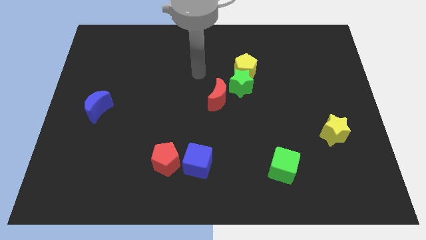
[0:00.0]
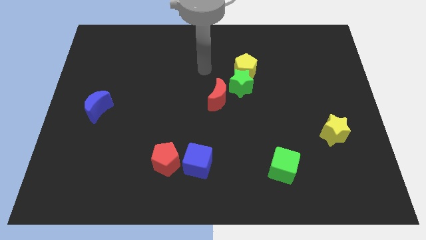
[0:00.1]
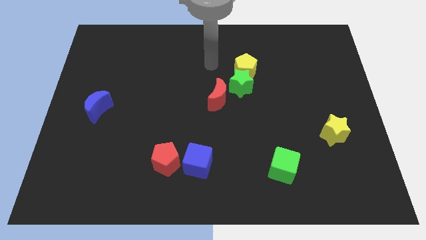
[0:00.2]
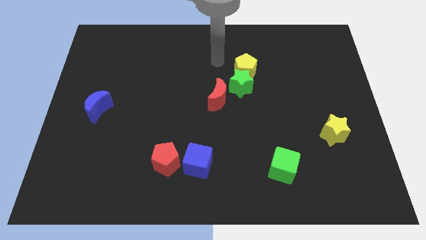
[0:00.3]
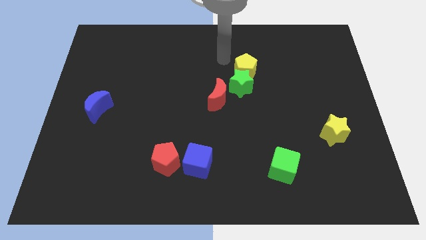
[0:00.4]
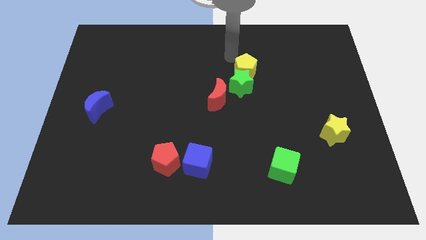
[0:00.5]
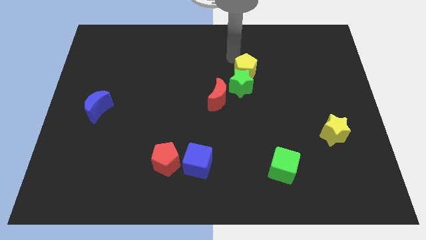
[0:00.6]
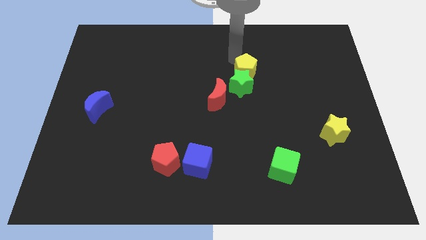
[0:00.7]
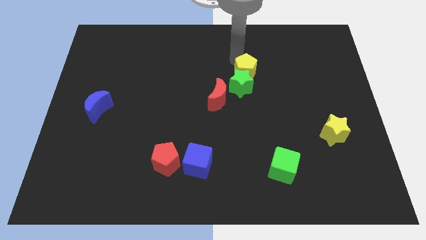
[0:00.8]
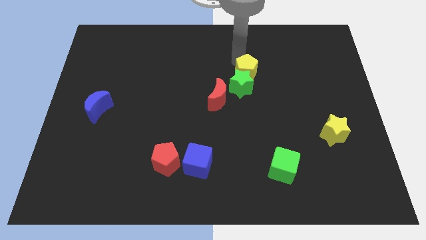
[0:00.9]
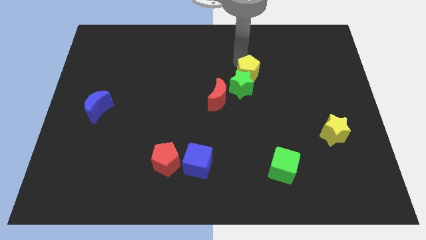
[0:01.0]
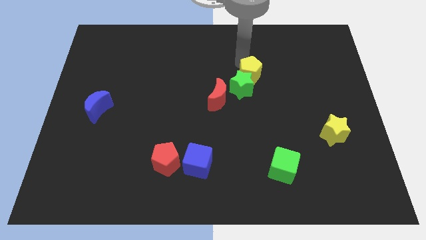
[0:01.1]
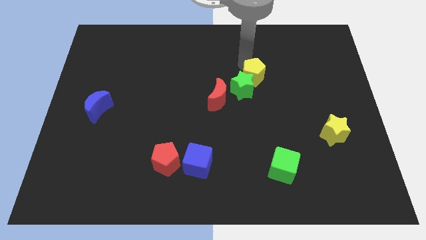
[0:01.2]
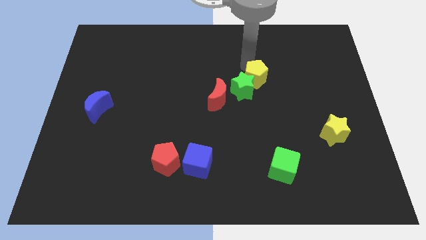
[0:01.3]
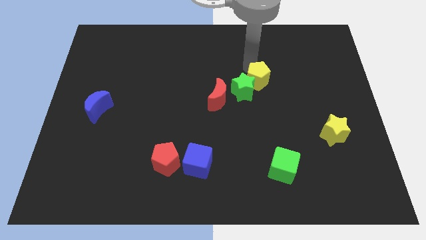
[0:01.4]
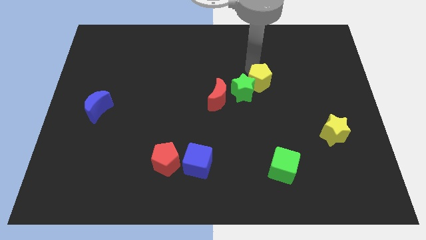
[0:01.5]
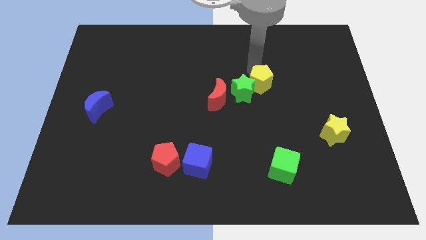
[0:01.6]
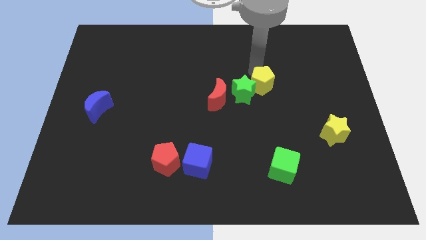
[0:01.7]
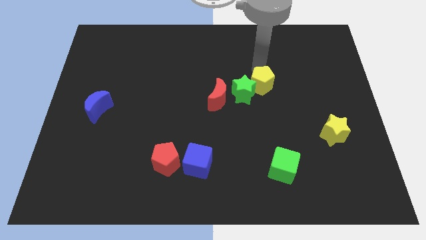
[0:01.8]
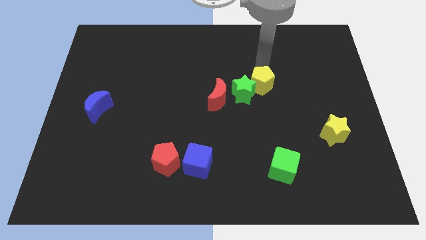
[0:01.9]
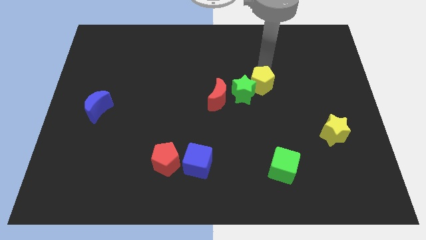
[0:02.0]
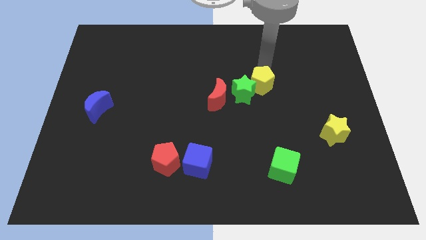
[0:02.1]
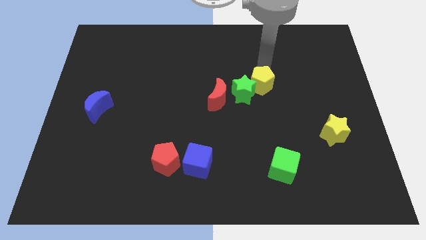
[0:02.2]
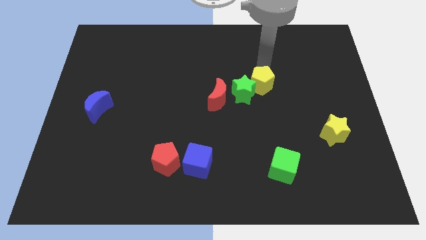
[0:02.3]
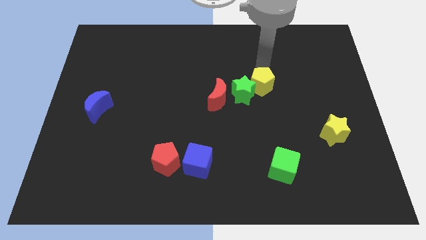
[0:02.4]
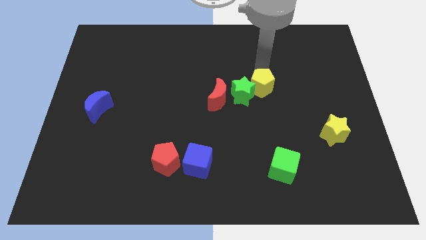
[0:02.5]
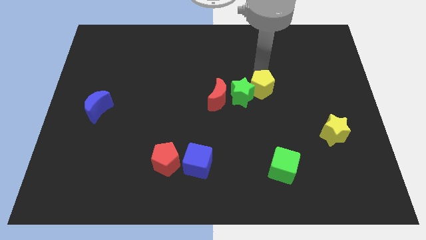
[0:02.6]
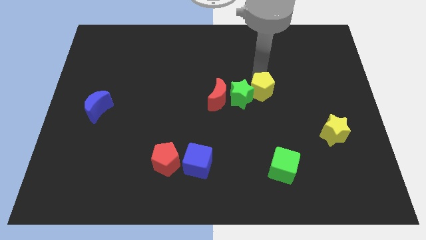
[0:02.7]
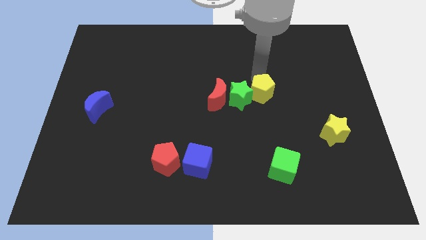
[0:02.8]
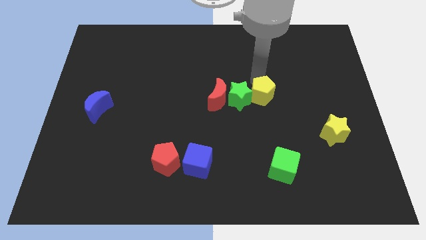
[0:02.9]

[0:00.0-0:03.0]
slide the yellow pentagon downwards somewhat

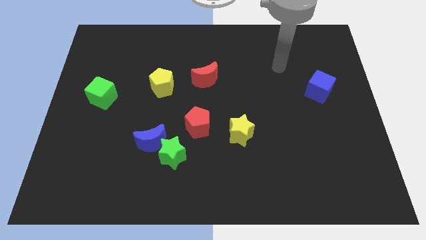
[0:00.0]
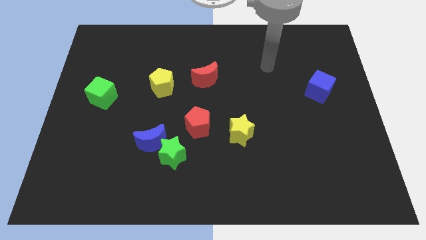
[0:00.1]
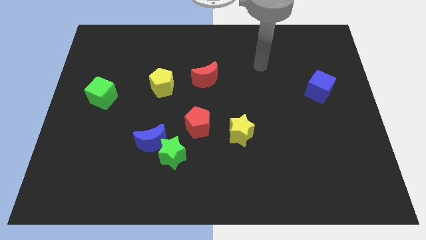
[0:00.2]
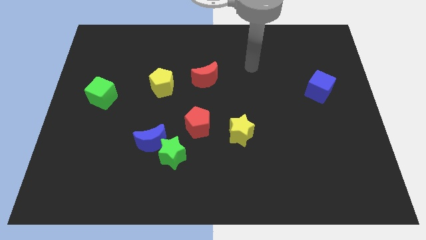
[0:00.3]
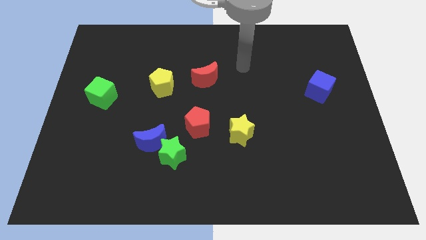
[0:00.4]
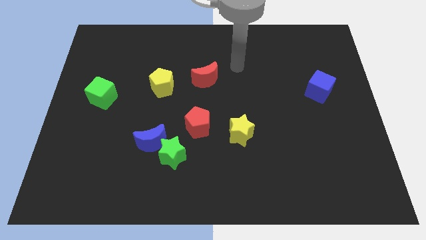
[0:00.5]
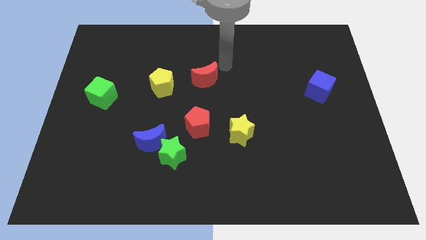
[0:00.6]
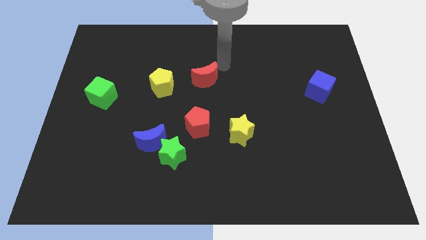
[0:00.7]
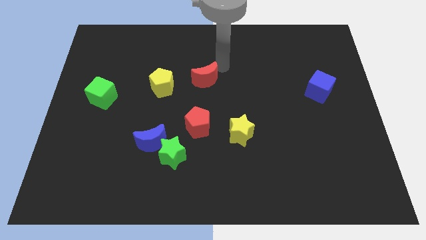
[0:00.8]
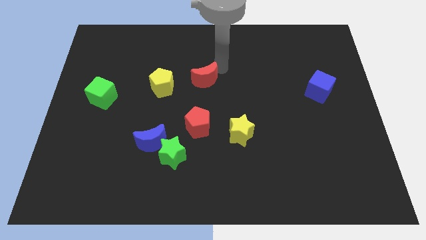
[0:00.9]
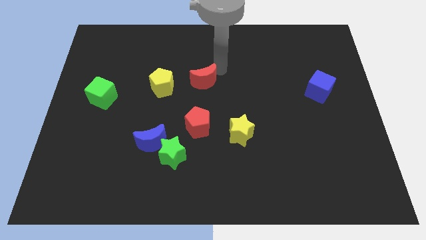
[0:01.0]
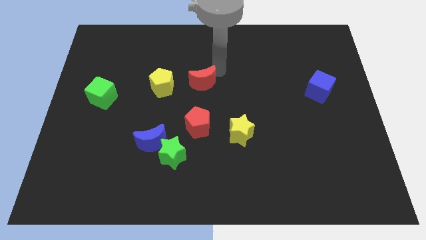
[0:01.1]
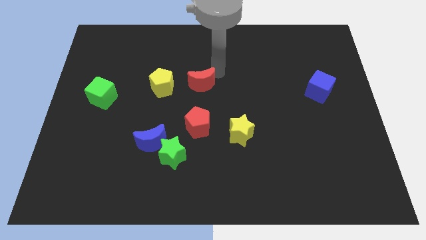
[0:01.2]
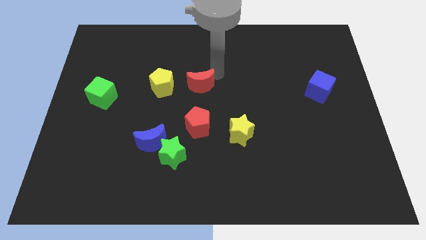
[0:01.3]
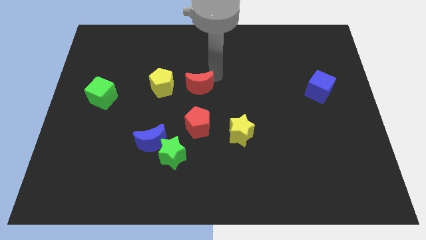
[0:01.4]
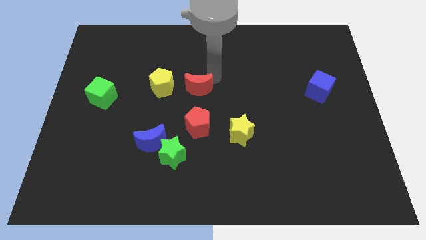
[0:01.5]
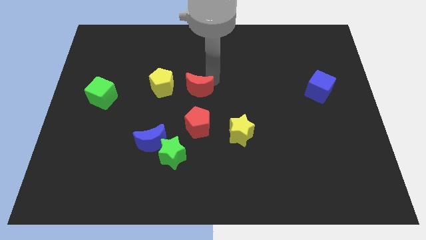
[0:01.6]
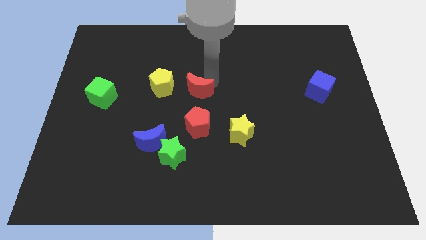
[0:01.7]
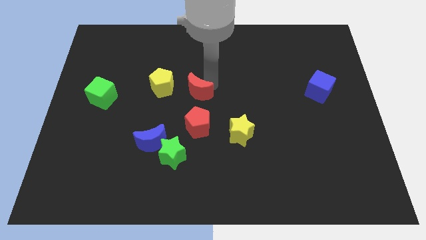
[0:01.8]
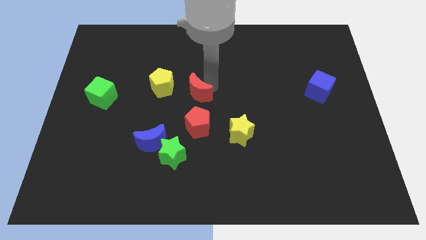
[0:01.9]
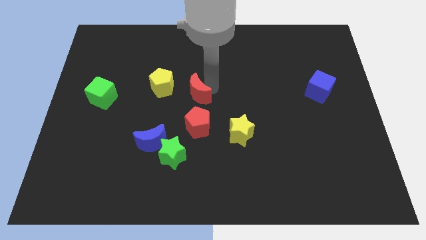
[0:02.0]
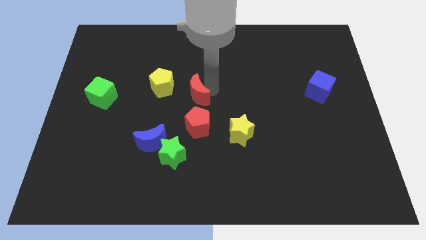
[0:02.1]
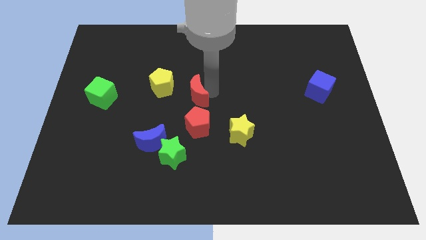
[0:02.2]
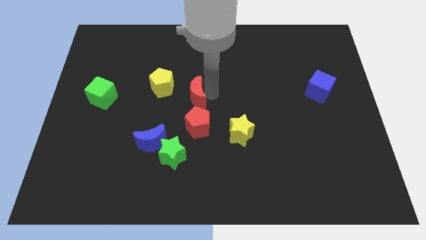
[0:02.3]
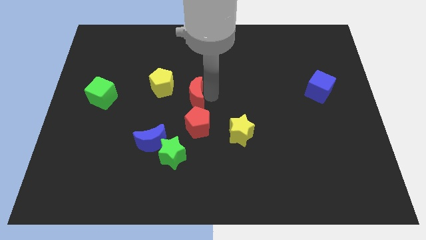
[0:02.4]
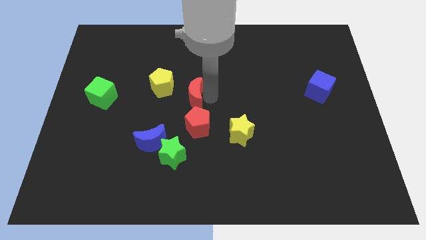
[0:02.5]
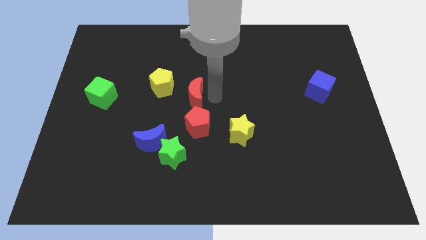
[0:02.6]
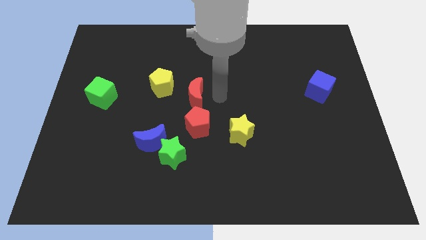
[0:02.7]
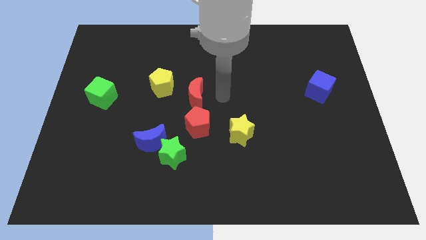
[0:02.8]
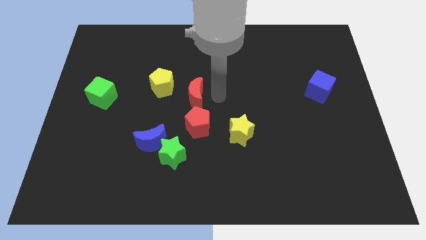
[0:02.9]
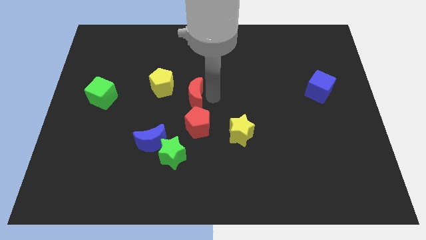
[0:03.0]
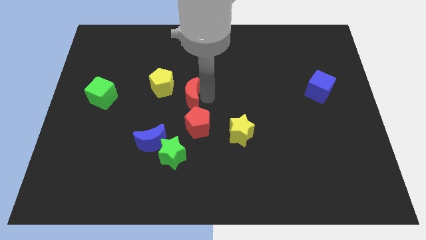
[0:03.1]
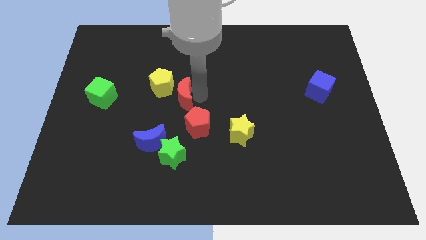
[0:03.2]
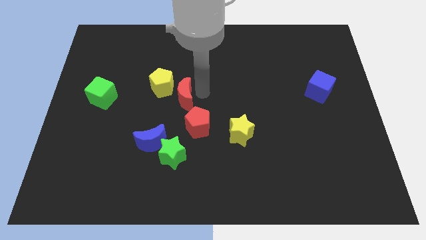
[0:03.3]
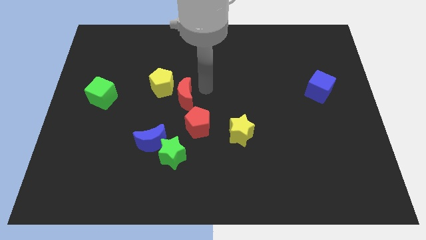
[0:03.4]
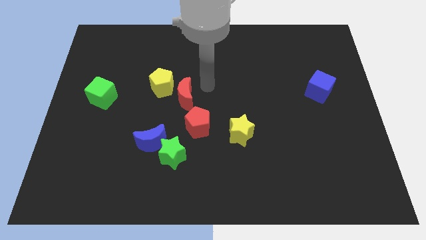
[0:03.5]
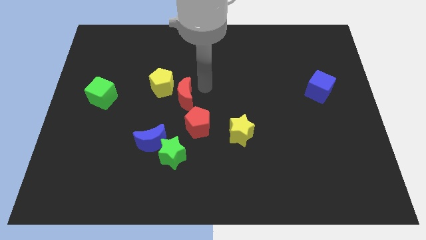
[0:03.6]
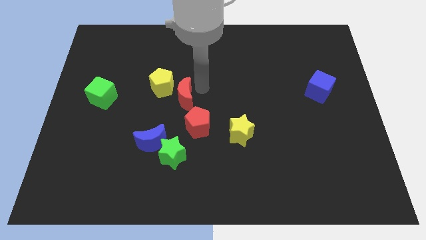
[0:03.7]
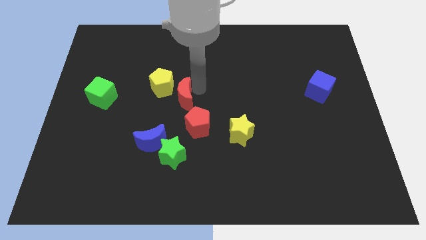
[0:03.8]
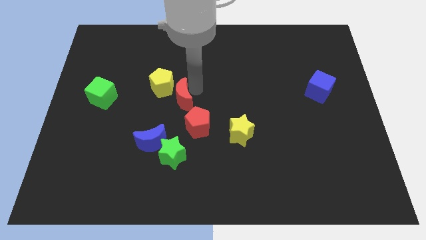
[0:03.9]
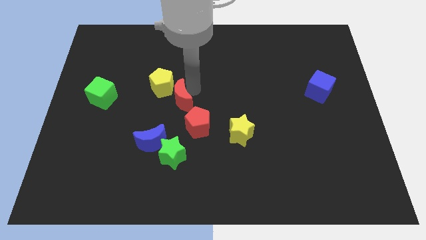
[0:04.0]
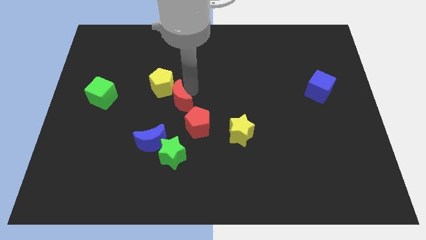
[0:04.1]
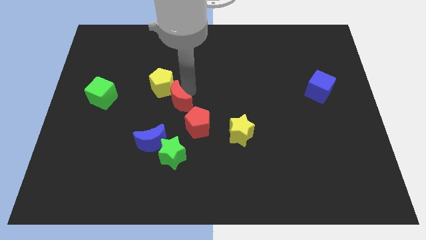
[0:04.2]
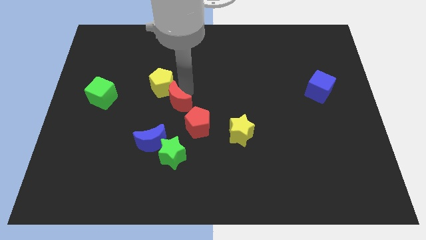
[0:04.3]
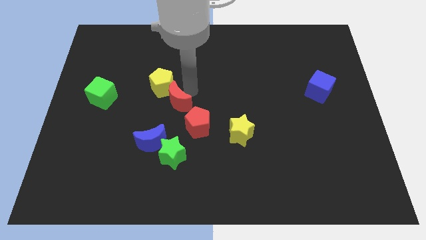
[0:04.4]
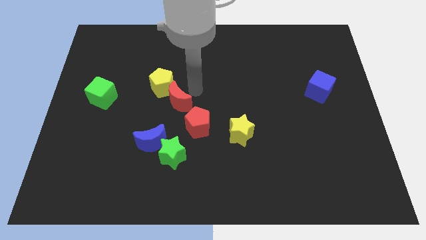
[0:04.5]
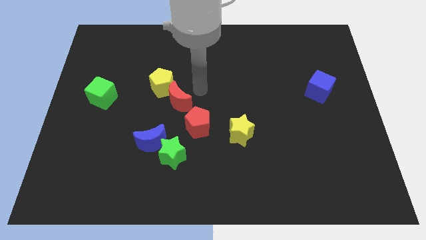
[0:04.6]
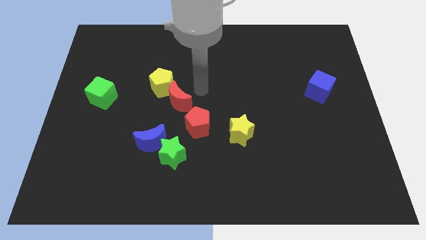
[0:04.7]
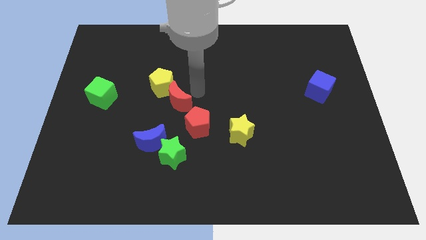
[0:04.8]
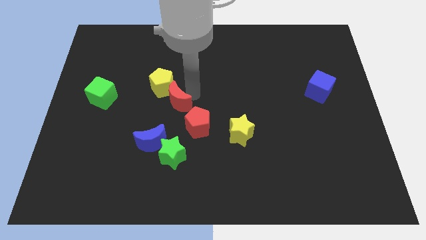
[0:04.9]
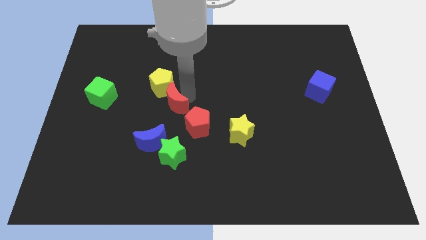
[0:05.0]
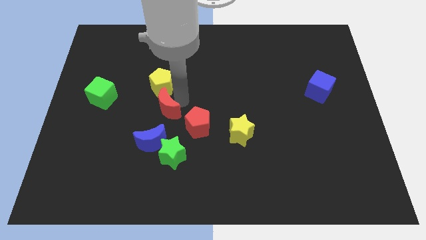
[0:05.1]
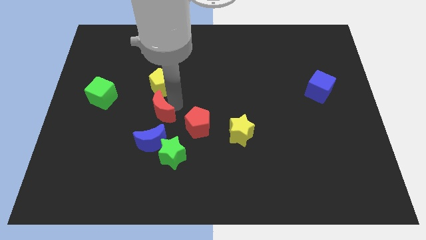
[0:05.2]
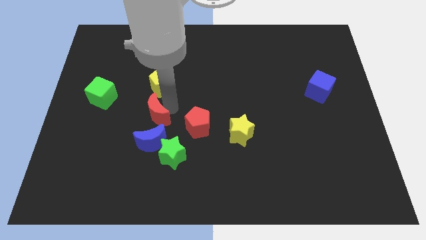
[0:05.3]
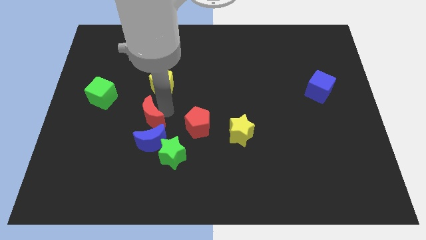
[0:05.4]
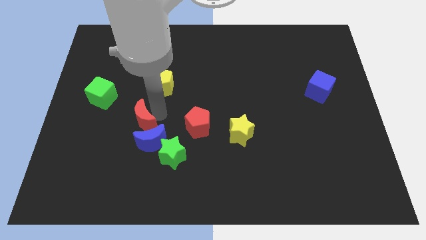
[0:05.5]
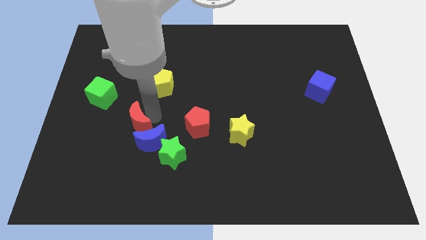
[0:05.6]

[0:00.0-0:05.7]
move the red moon downwards and then left
